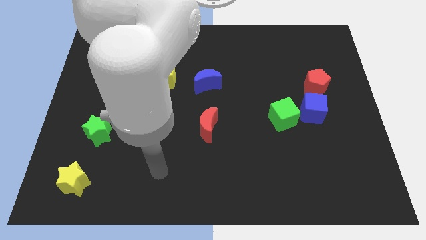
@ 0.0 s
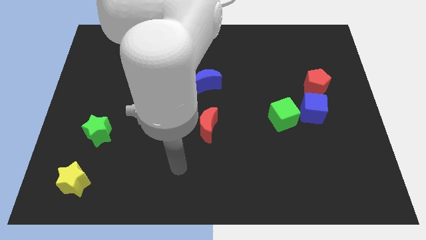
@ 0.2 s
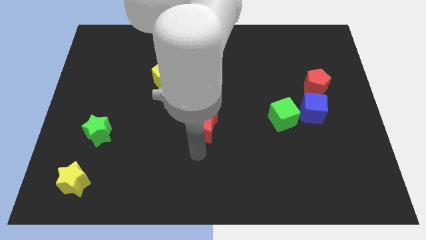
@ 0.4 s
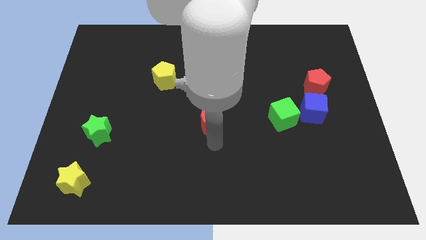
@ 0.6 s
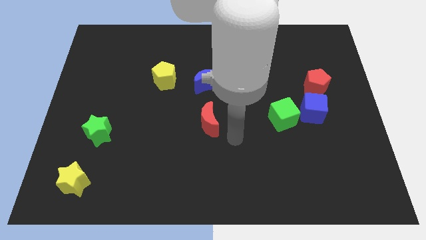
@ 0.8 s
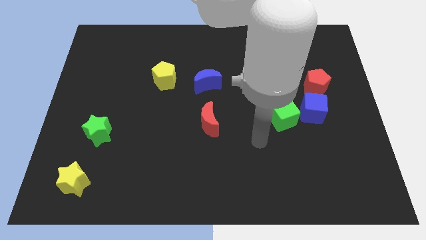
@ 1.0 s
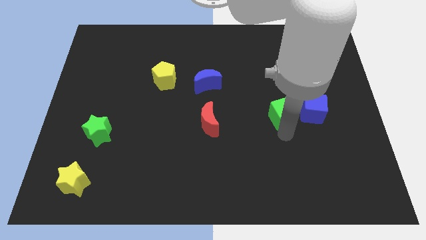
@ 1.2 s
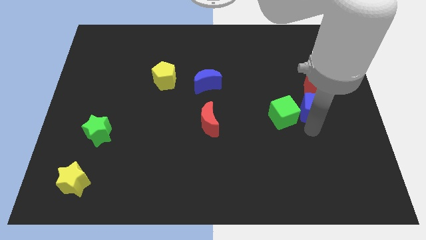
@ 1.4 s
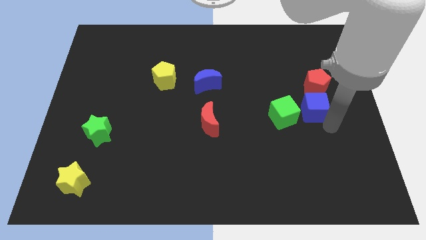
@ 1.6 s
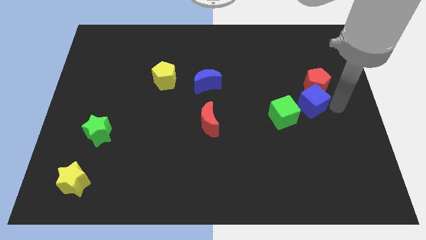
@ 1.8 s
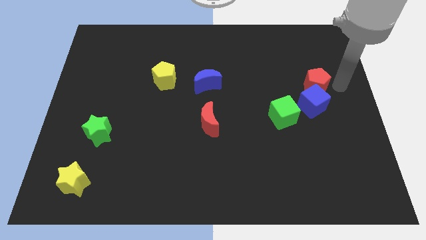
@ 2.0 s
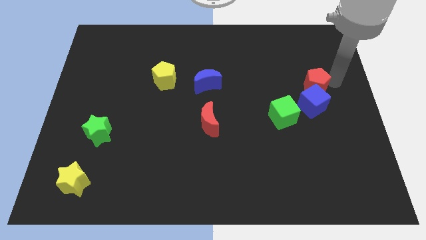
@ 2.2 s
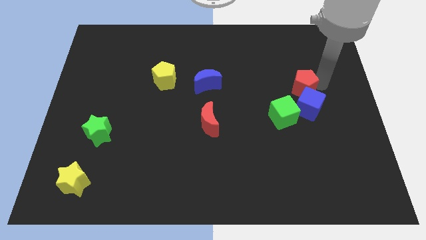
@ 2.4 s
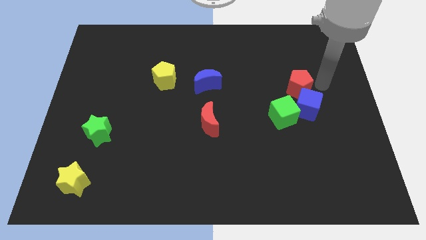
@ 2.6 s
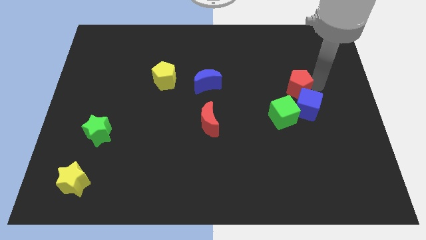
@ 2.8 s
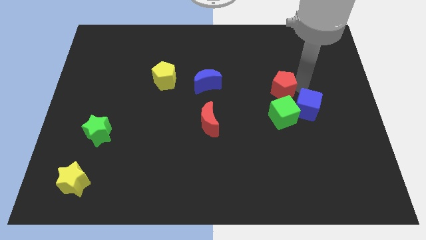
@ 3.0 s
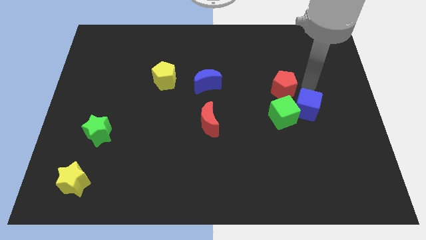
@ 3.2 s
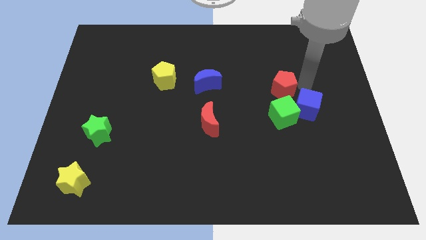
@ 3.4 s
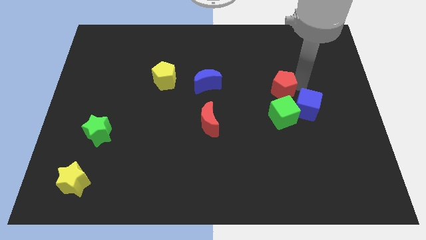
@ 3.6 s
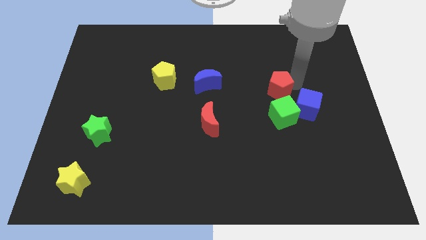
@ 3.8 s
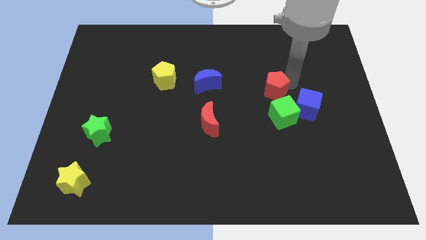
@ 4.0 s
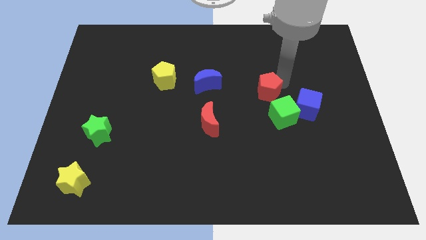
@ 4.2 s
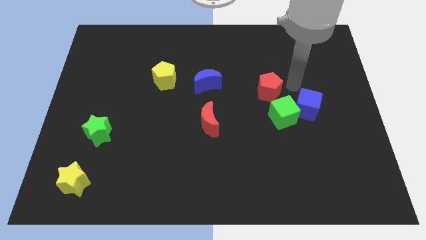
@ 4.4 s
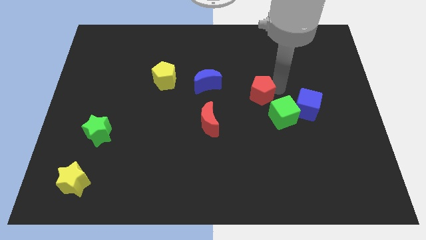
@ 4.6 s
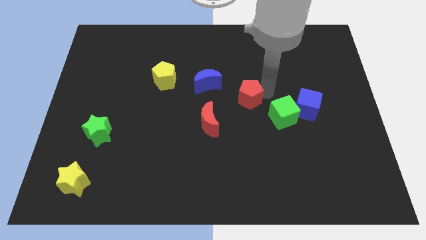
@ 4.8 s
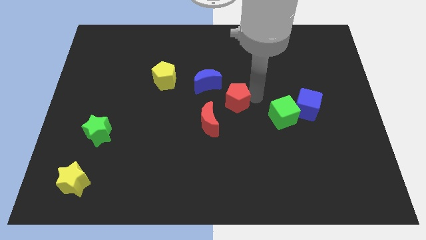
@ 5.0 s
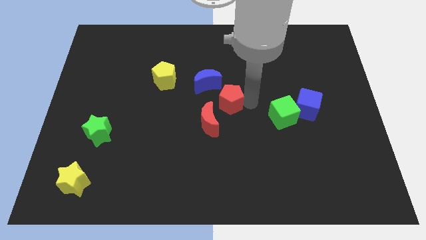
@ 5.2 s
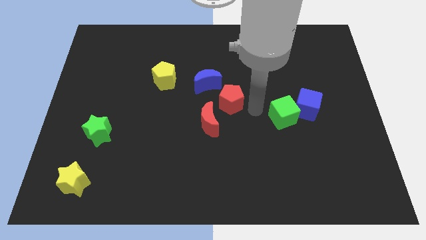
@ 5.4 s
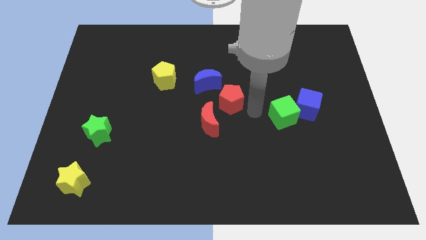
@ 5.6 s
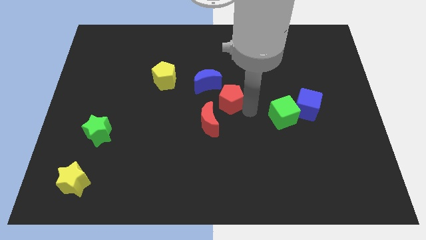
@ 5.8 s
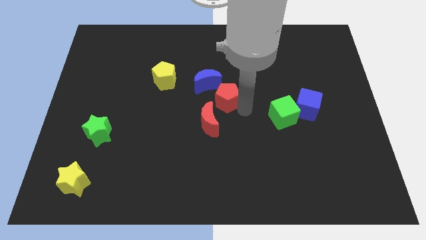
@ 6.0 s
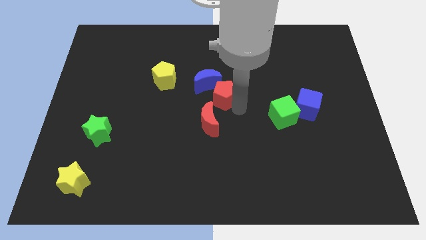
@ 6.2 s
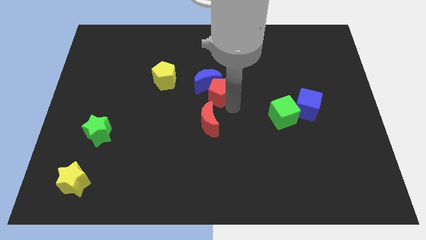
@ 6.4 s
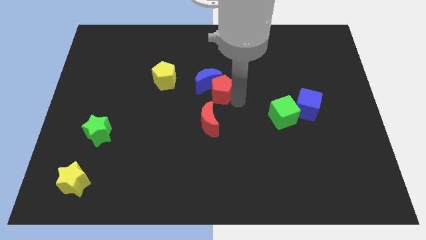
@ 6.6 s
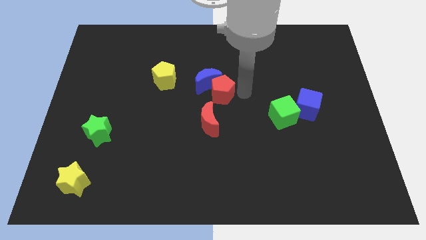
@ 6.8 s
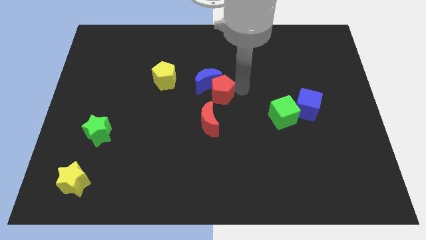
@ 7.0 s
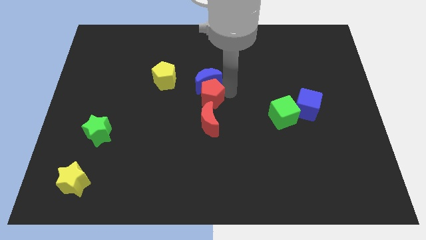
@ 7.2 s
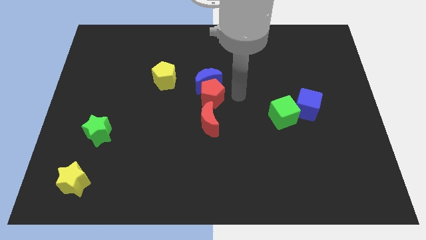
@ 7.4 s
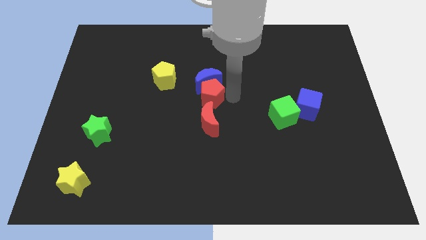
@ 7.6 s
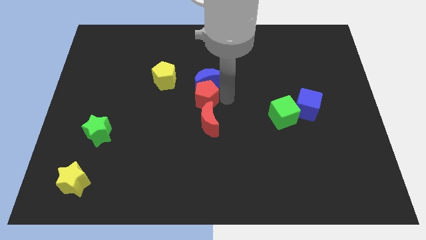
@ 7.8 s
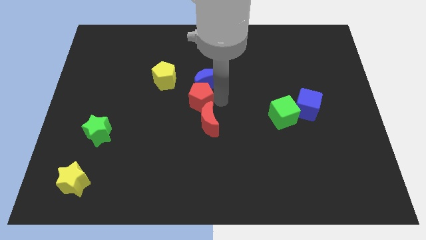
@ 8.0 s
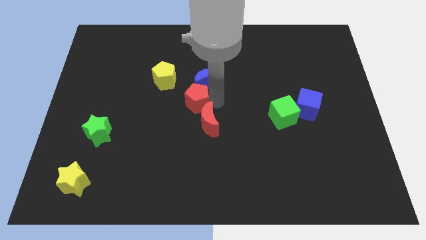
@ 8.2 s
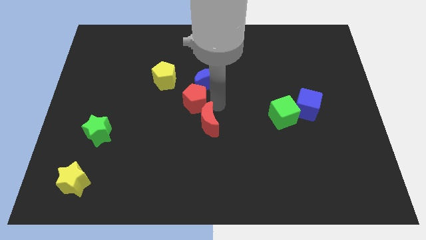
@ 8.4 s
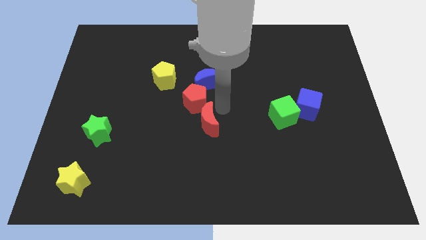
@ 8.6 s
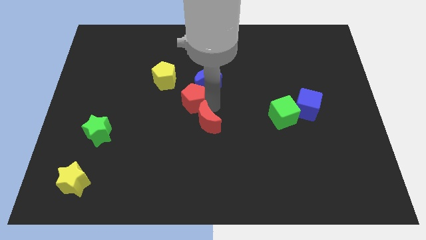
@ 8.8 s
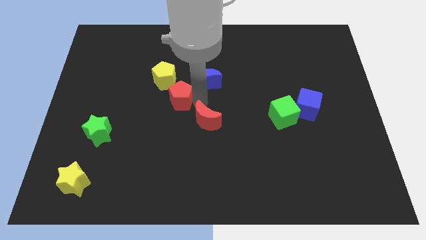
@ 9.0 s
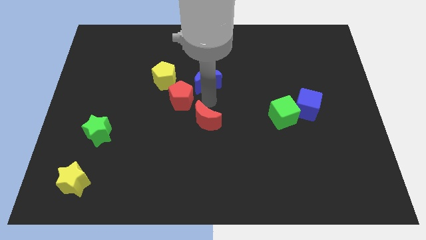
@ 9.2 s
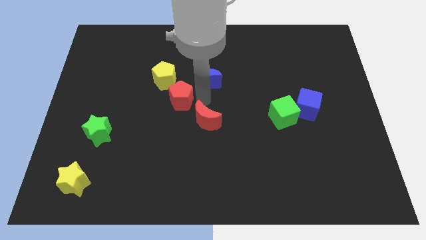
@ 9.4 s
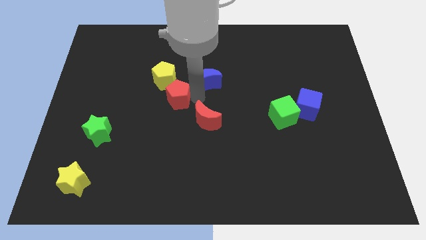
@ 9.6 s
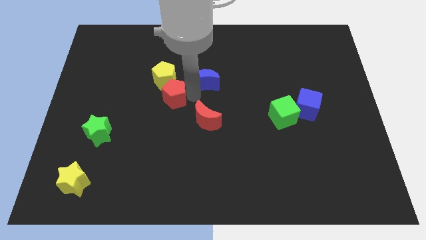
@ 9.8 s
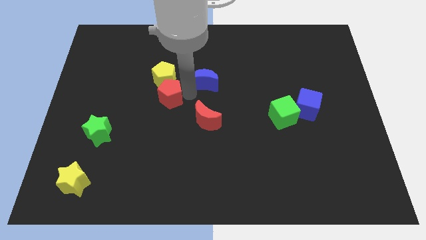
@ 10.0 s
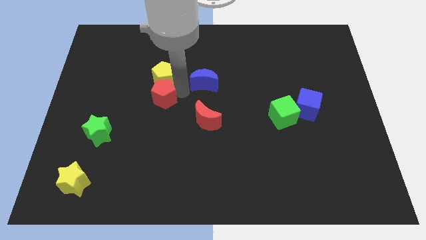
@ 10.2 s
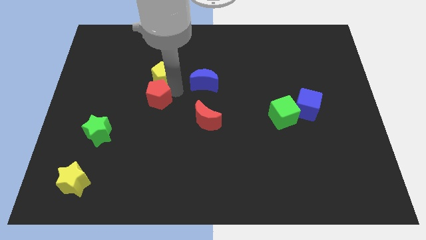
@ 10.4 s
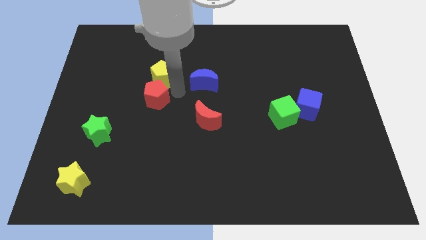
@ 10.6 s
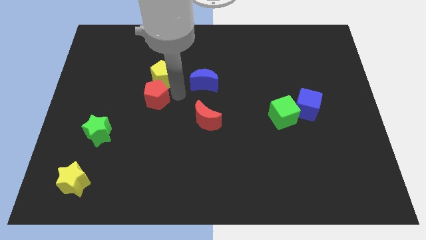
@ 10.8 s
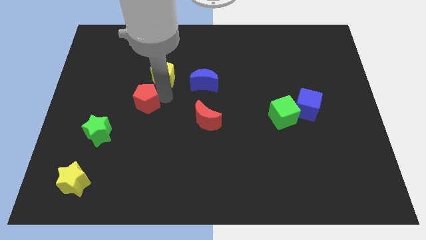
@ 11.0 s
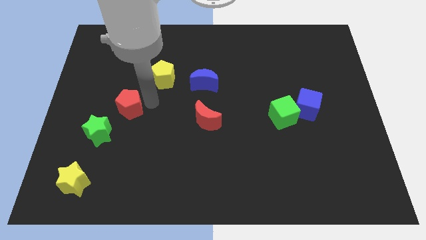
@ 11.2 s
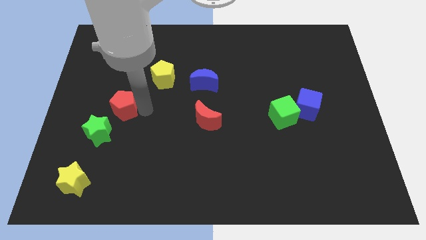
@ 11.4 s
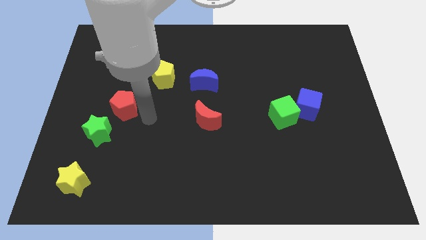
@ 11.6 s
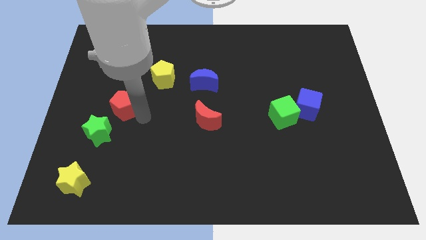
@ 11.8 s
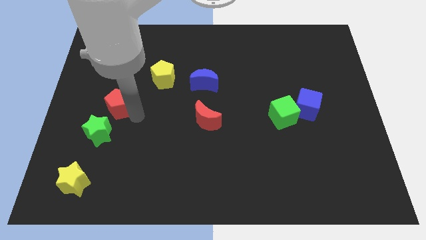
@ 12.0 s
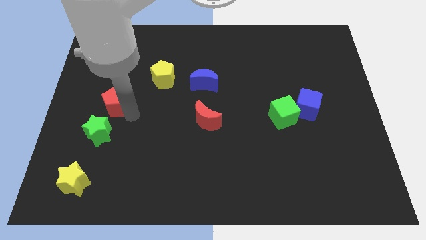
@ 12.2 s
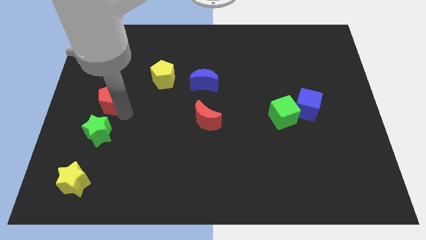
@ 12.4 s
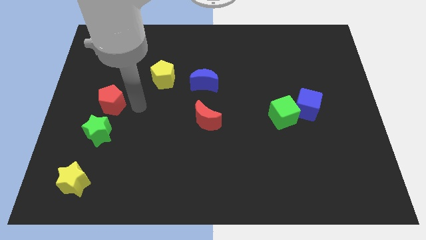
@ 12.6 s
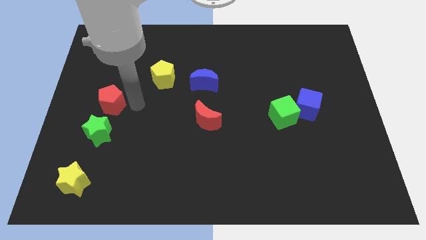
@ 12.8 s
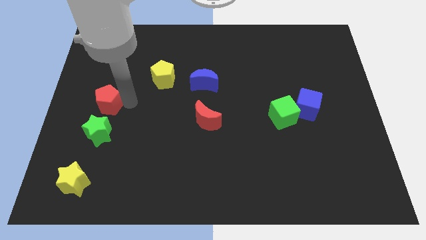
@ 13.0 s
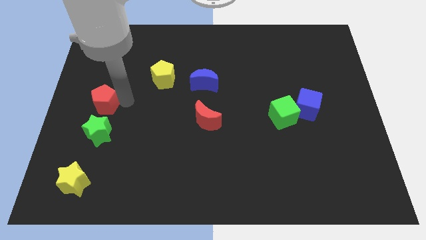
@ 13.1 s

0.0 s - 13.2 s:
push the red pentagon to the left side
